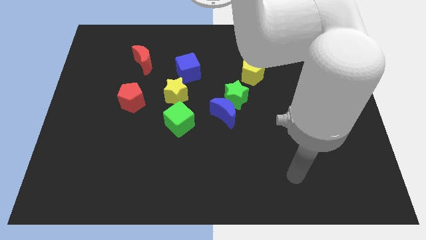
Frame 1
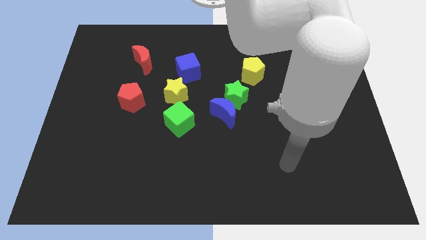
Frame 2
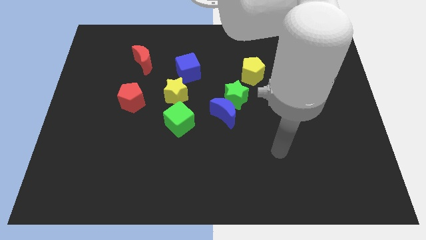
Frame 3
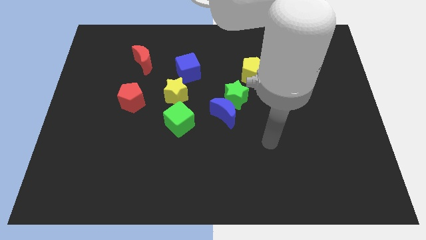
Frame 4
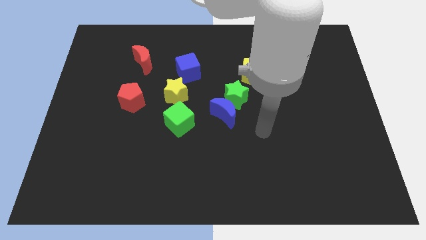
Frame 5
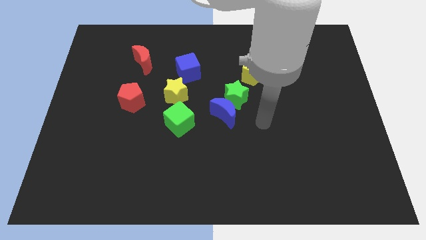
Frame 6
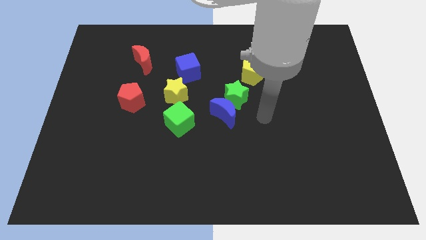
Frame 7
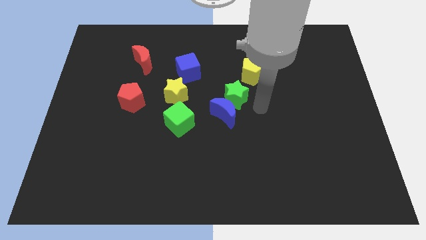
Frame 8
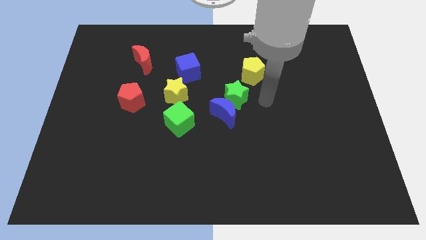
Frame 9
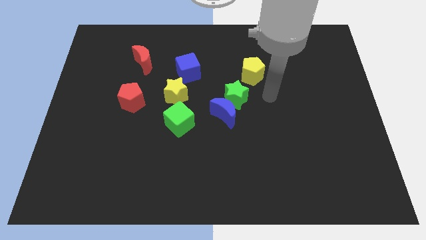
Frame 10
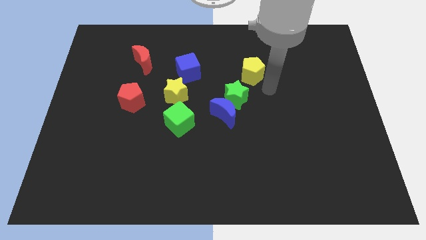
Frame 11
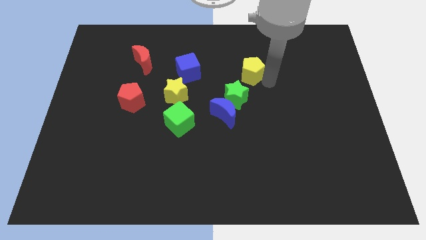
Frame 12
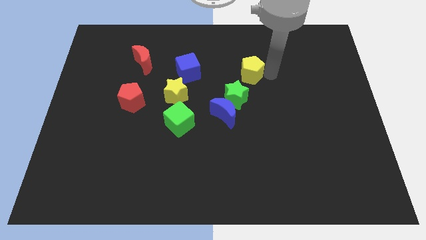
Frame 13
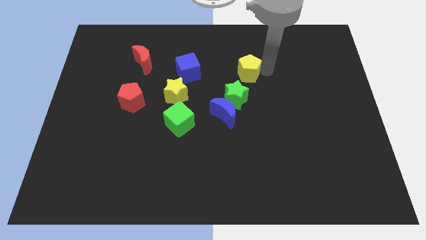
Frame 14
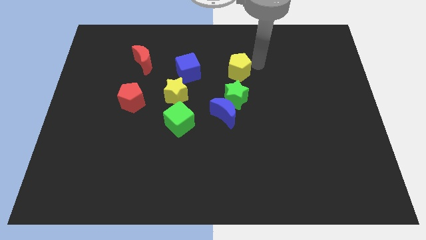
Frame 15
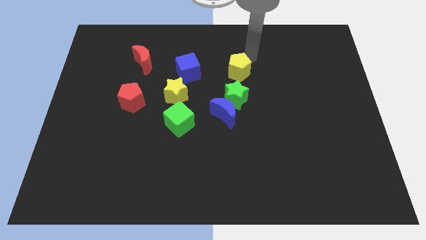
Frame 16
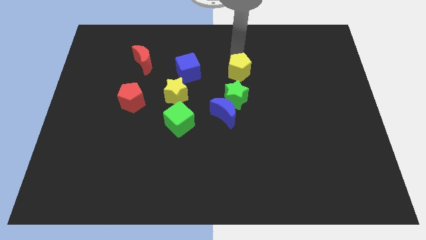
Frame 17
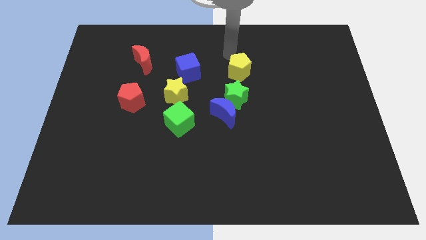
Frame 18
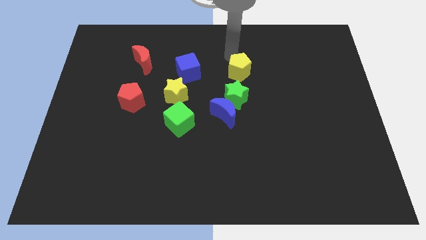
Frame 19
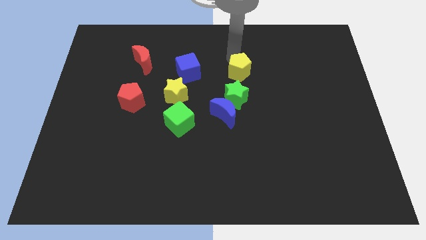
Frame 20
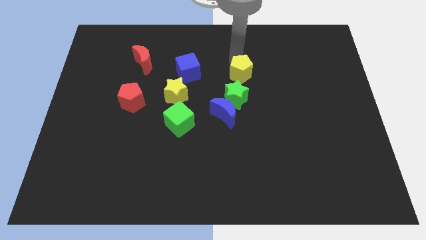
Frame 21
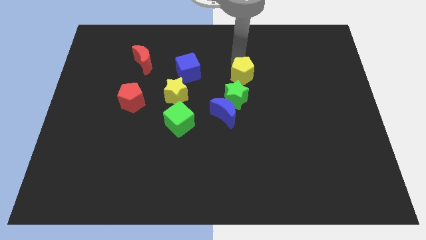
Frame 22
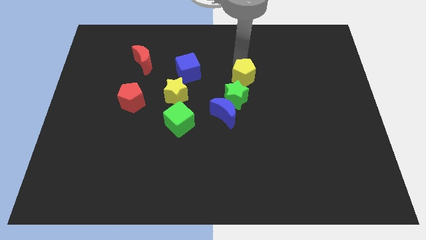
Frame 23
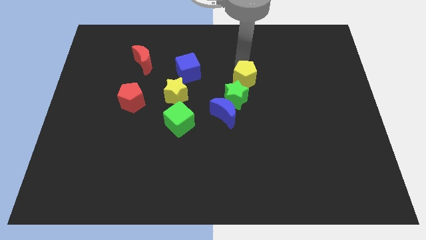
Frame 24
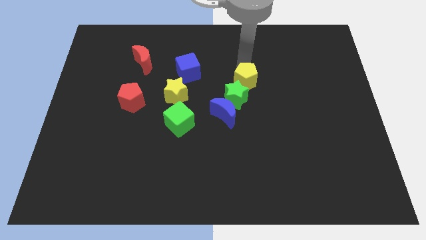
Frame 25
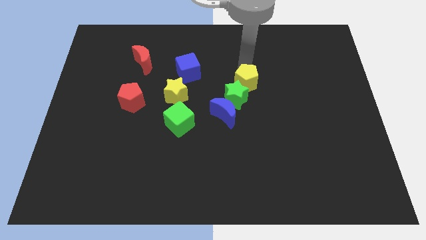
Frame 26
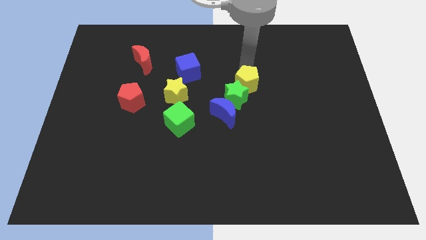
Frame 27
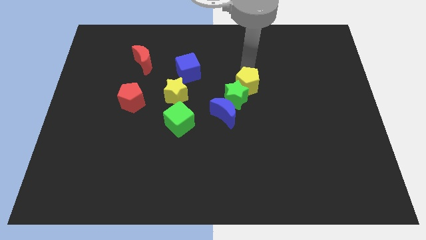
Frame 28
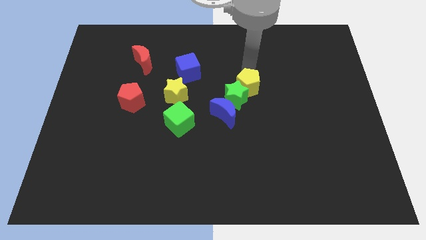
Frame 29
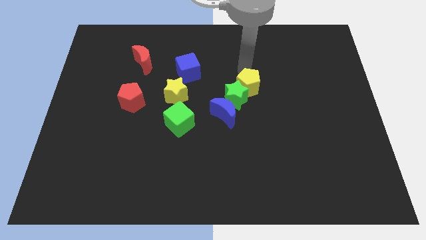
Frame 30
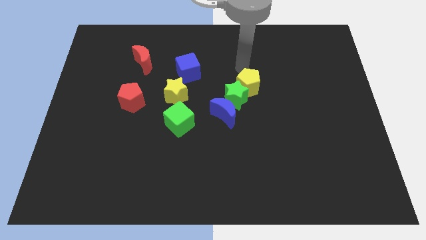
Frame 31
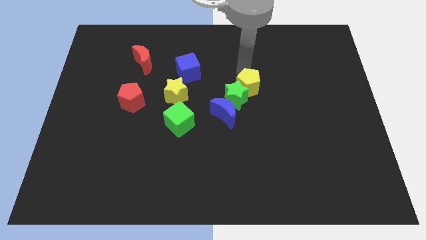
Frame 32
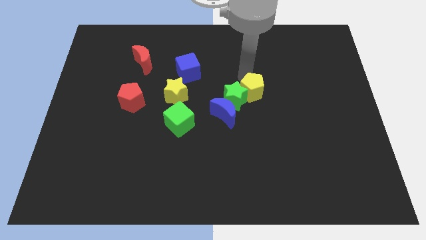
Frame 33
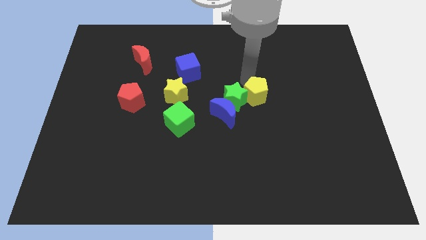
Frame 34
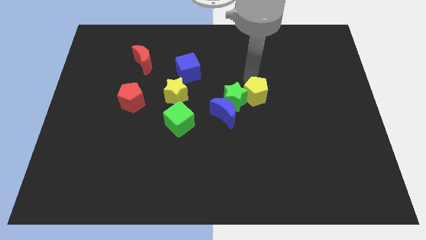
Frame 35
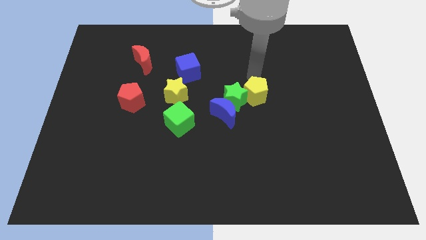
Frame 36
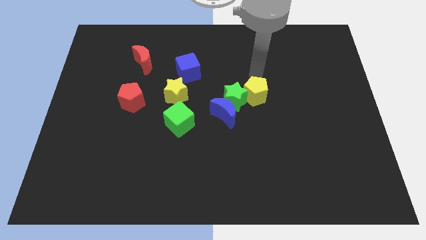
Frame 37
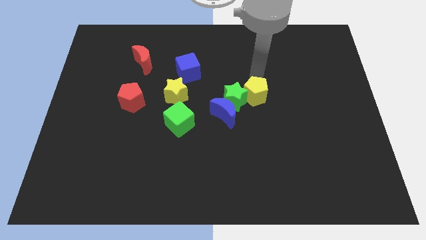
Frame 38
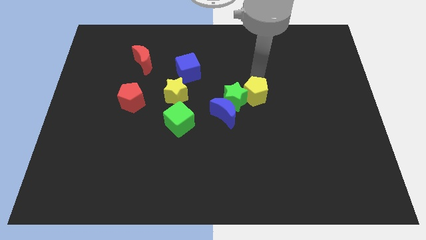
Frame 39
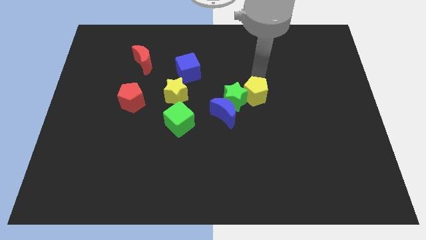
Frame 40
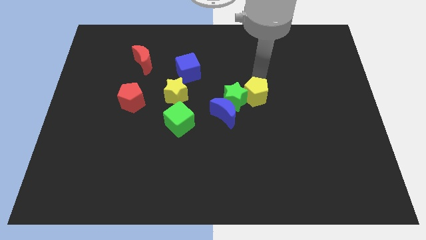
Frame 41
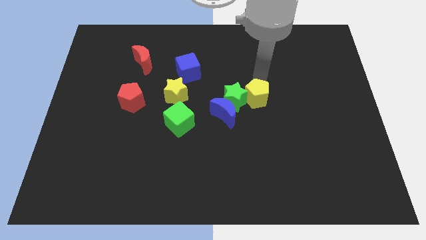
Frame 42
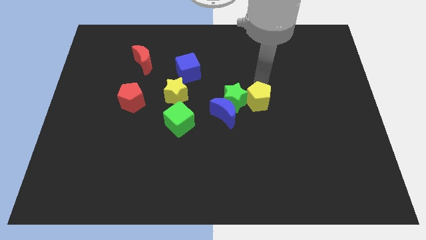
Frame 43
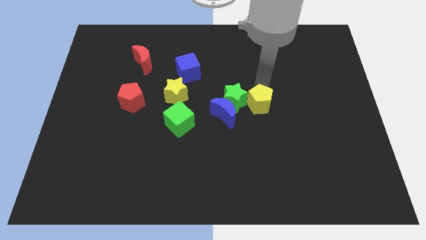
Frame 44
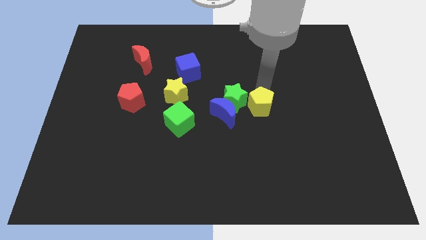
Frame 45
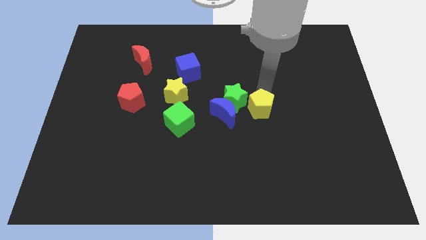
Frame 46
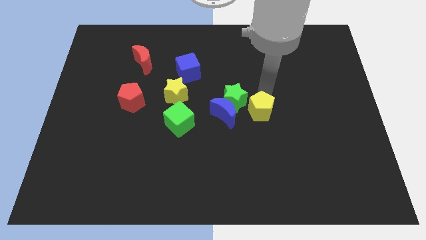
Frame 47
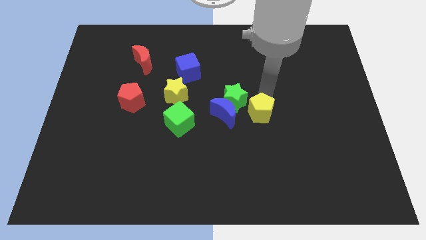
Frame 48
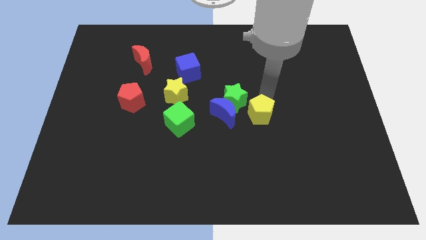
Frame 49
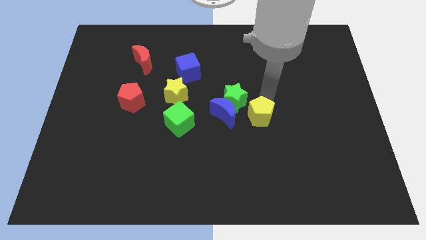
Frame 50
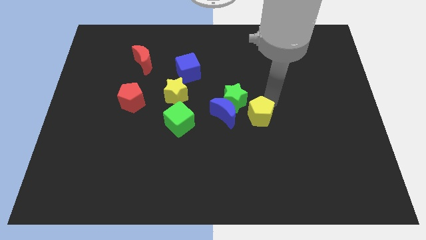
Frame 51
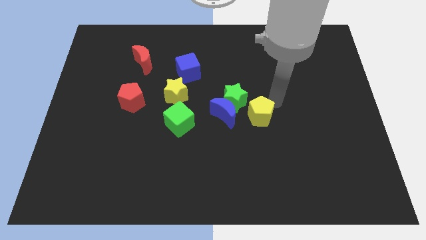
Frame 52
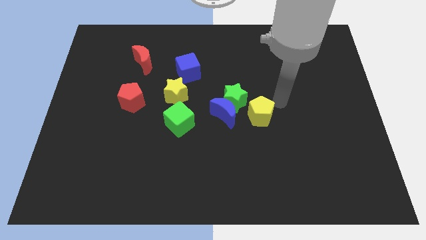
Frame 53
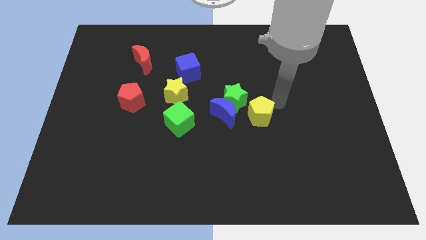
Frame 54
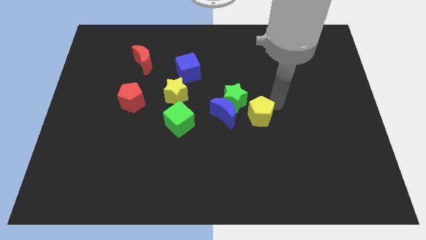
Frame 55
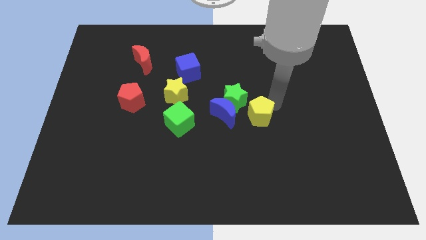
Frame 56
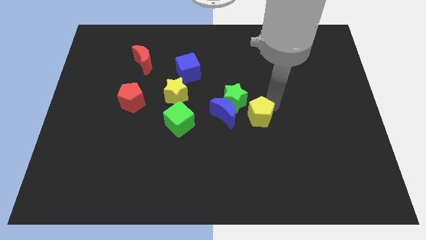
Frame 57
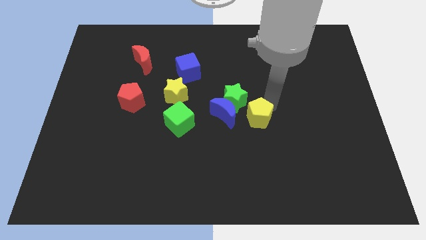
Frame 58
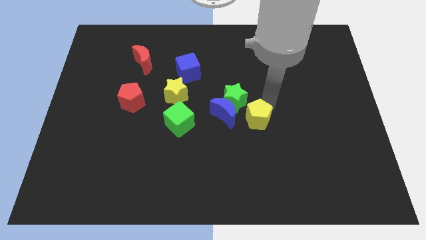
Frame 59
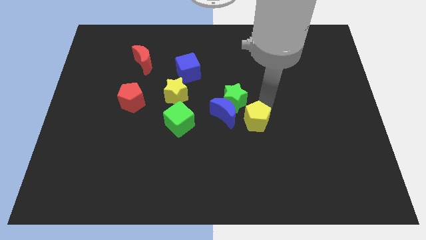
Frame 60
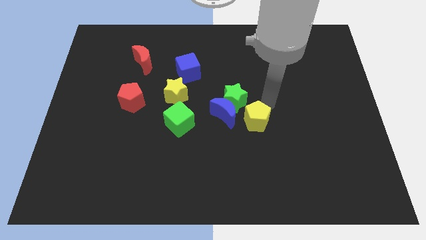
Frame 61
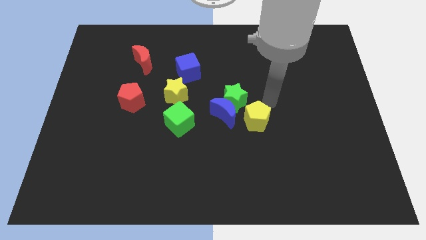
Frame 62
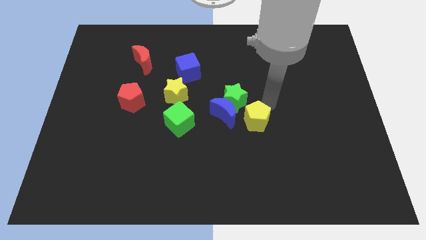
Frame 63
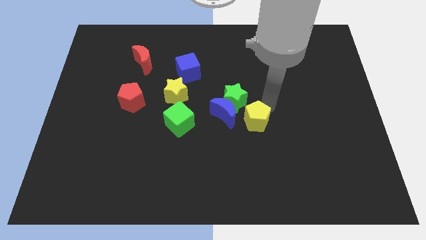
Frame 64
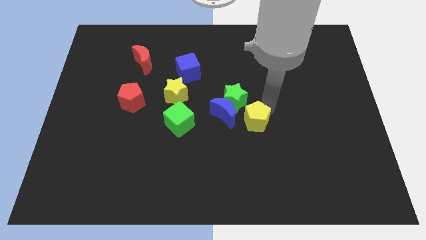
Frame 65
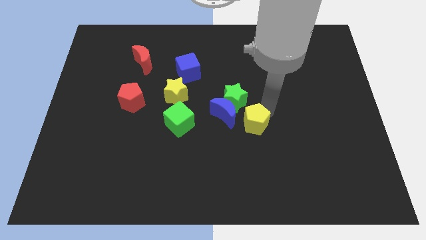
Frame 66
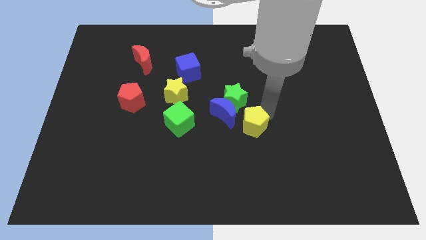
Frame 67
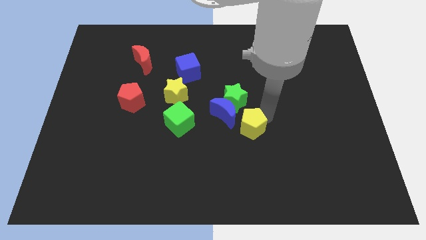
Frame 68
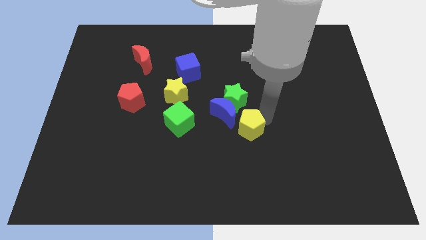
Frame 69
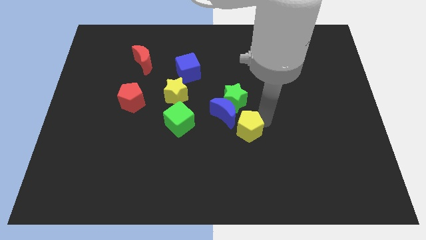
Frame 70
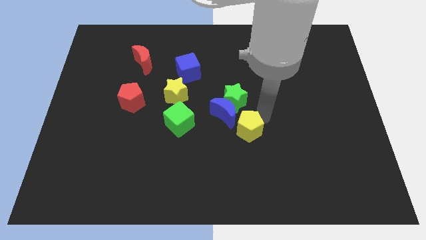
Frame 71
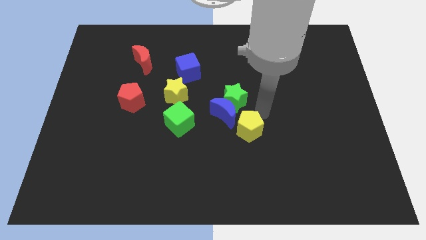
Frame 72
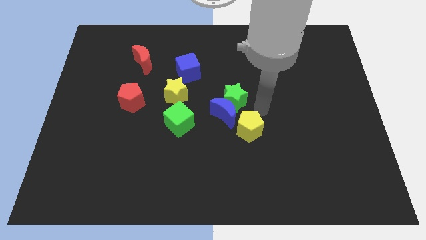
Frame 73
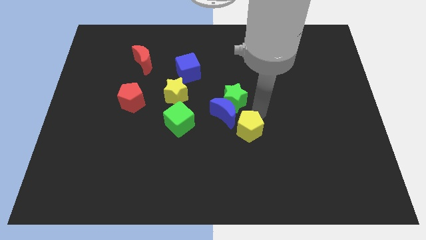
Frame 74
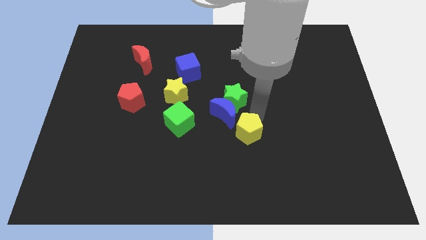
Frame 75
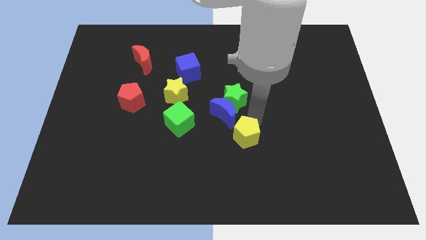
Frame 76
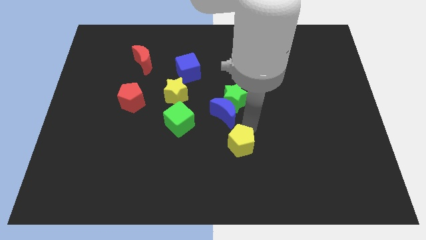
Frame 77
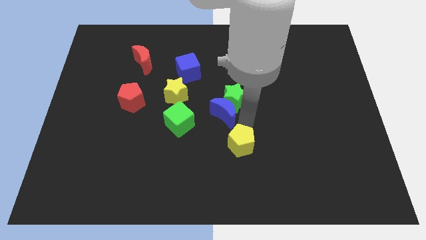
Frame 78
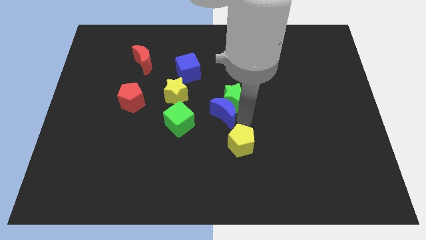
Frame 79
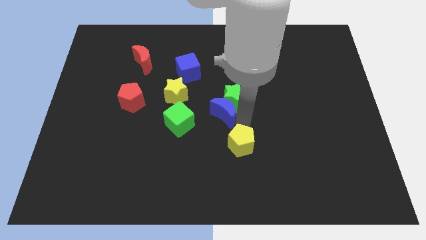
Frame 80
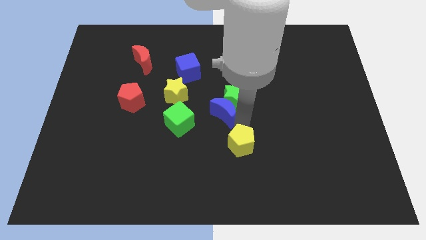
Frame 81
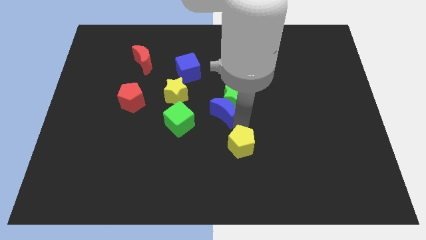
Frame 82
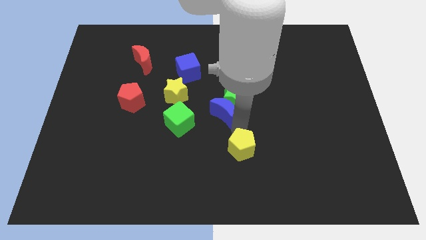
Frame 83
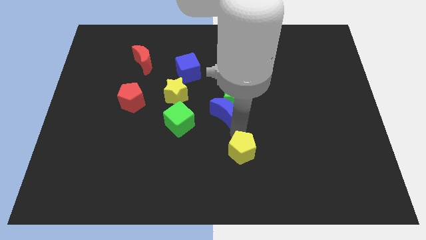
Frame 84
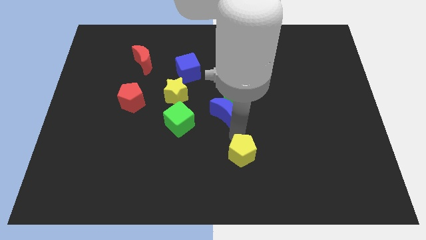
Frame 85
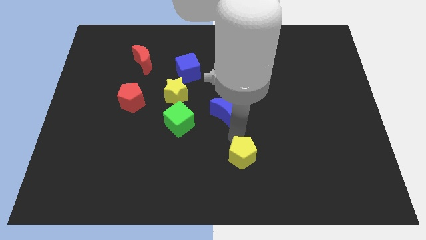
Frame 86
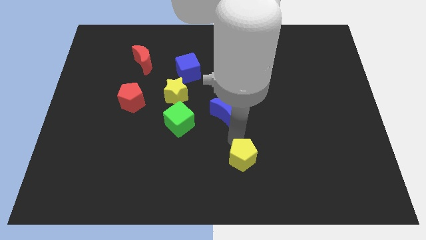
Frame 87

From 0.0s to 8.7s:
slide the yellow pentagon to the bottom side
